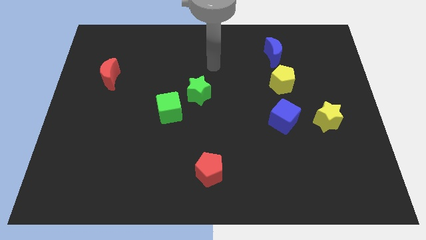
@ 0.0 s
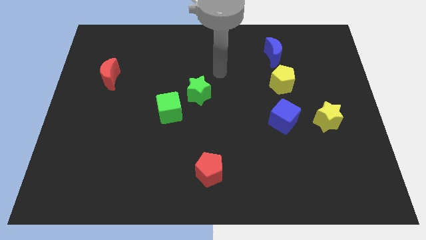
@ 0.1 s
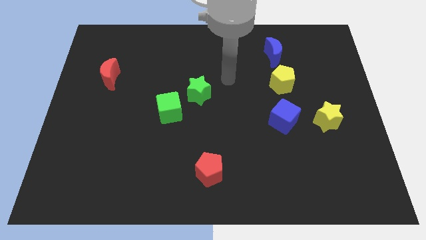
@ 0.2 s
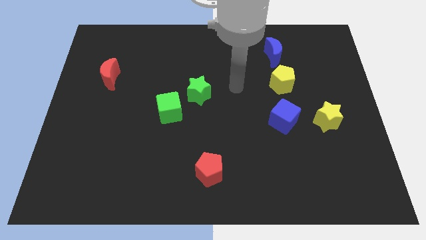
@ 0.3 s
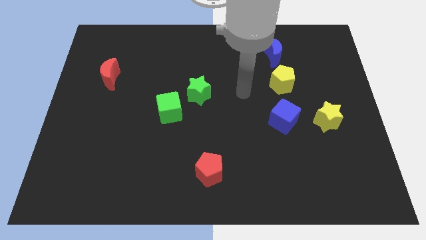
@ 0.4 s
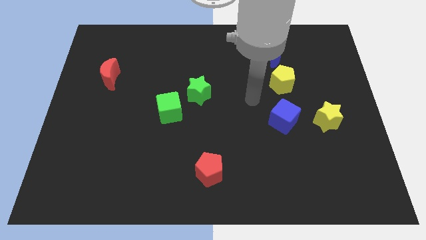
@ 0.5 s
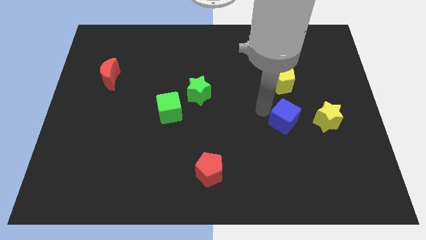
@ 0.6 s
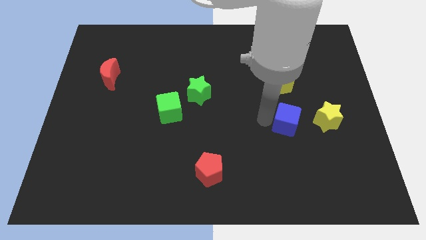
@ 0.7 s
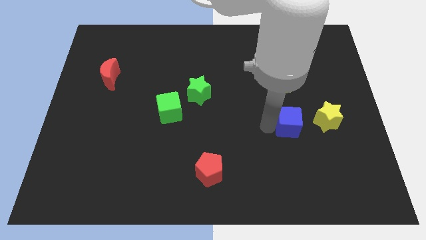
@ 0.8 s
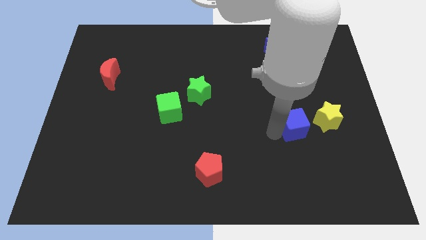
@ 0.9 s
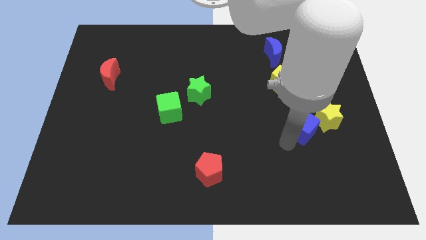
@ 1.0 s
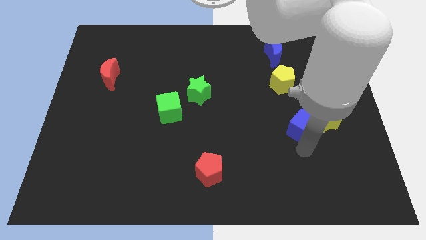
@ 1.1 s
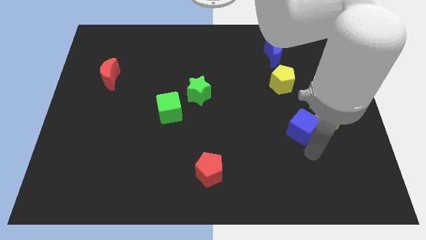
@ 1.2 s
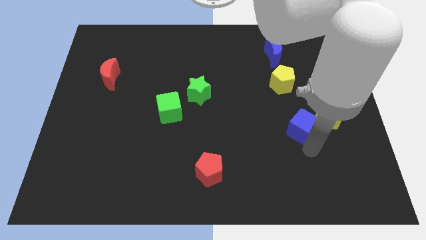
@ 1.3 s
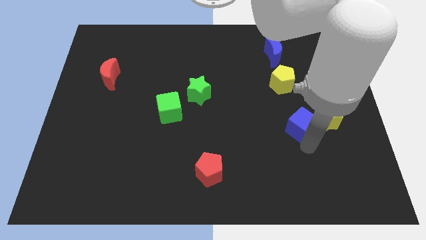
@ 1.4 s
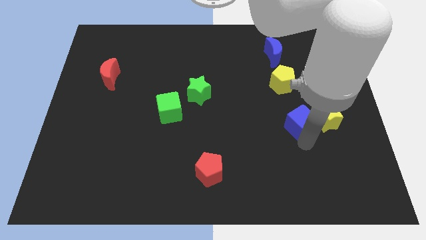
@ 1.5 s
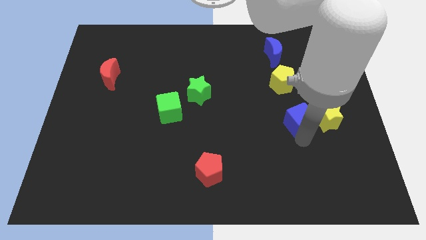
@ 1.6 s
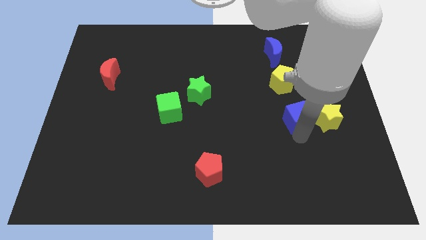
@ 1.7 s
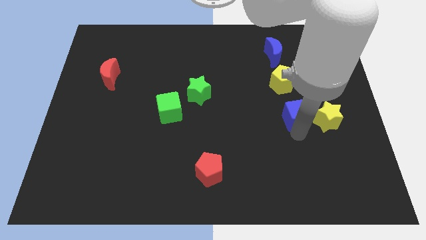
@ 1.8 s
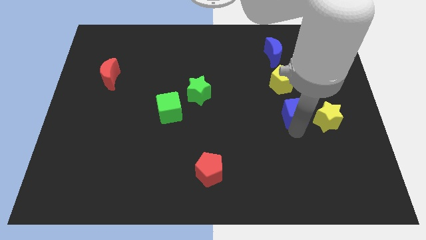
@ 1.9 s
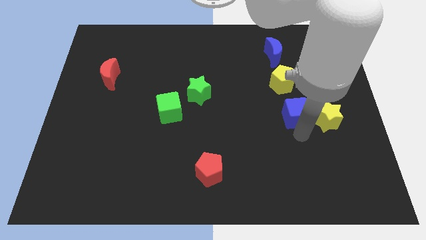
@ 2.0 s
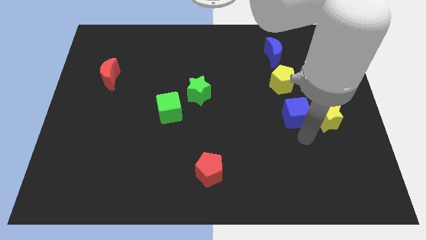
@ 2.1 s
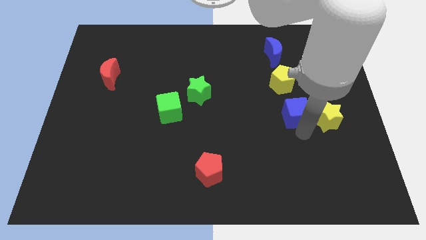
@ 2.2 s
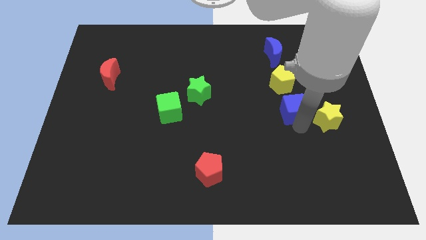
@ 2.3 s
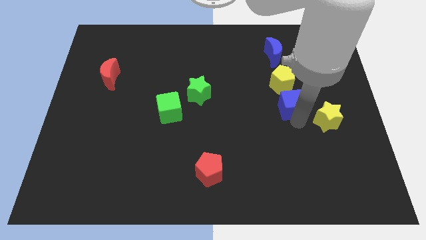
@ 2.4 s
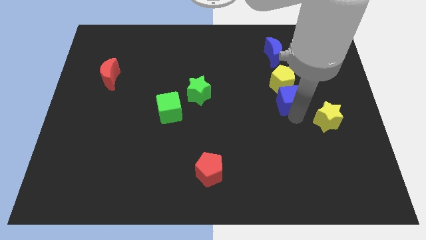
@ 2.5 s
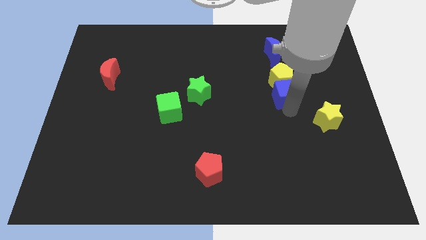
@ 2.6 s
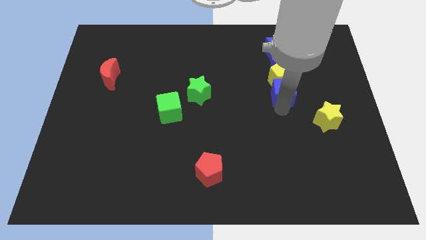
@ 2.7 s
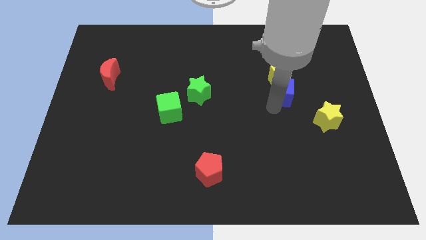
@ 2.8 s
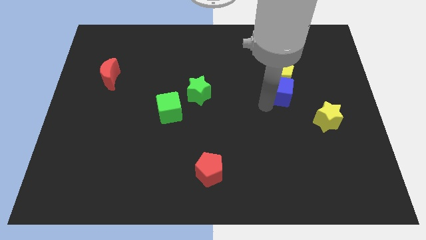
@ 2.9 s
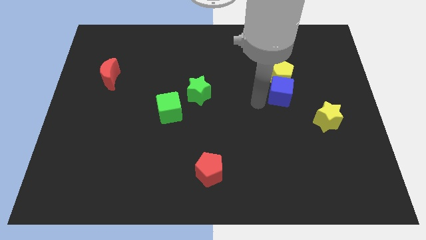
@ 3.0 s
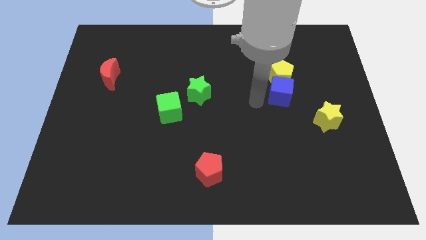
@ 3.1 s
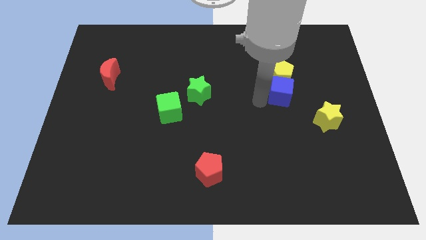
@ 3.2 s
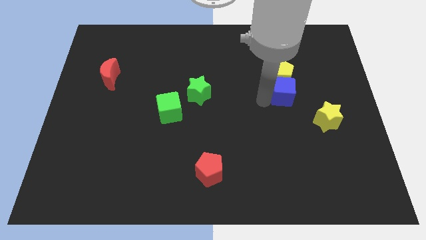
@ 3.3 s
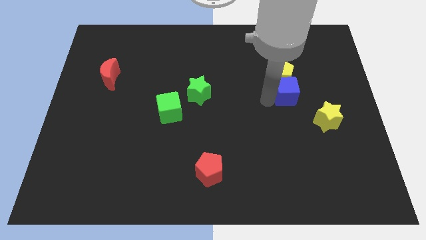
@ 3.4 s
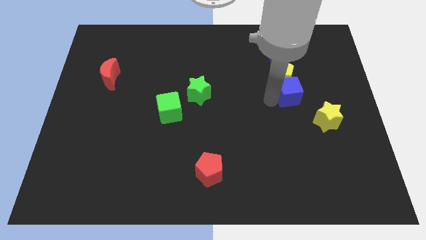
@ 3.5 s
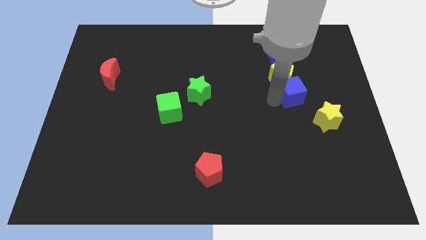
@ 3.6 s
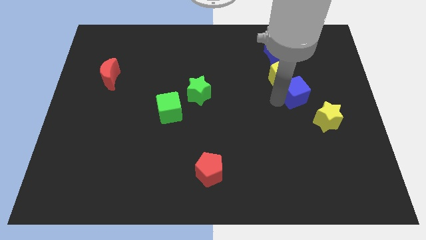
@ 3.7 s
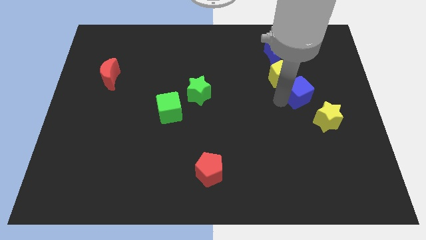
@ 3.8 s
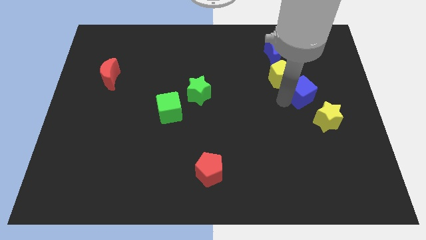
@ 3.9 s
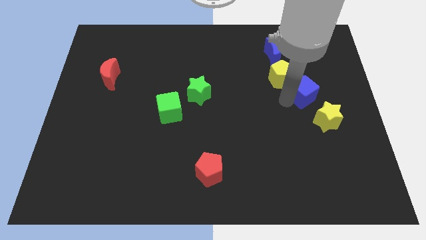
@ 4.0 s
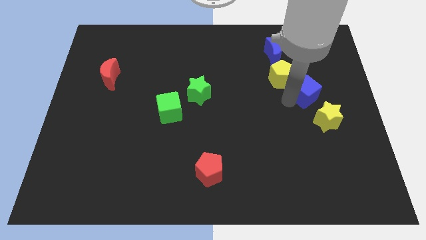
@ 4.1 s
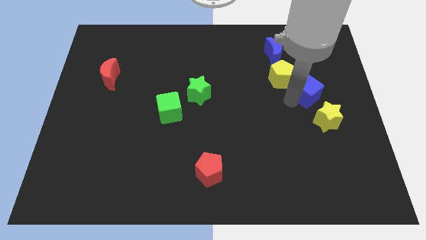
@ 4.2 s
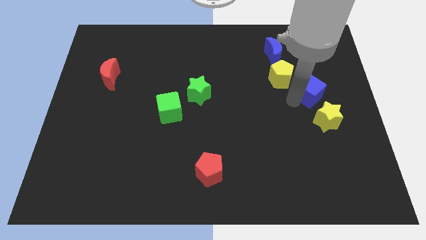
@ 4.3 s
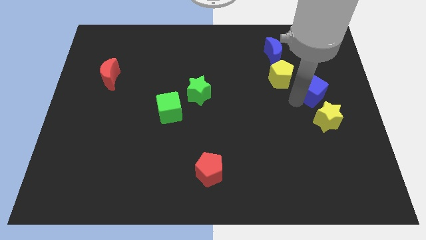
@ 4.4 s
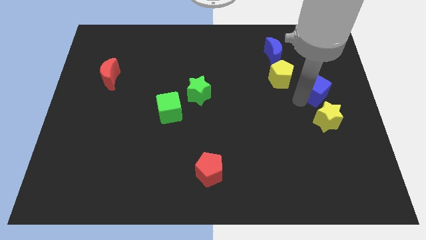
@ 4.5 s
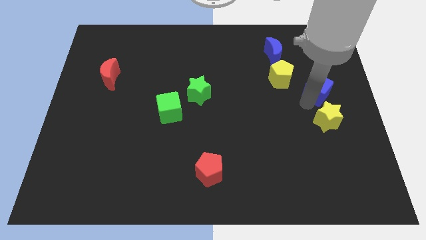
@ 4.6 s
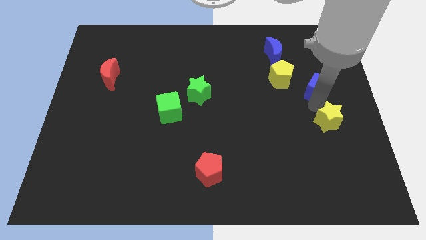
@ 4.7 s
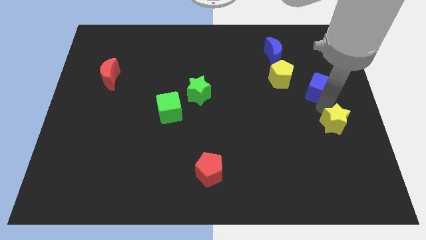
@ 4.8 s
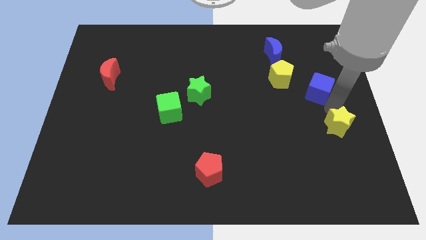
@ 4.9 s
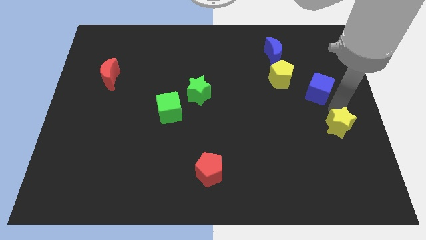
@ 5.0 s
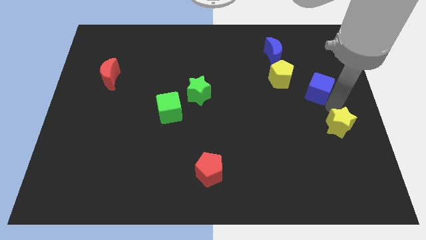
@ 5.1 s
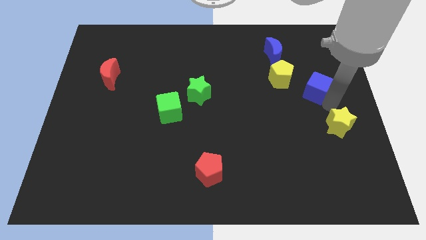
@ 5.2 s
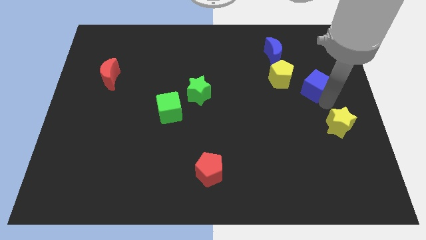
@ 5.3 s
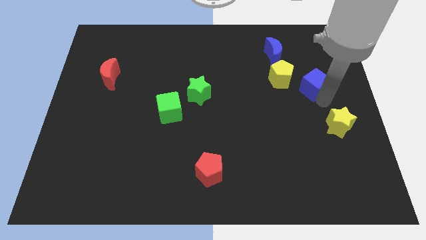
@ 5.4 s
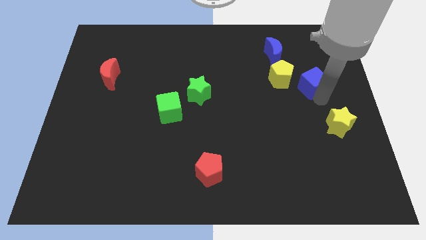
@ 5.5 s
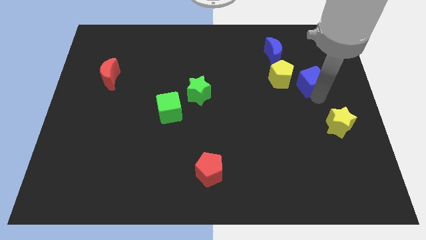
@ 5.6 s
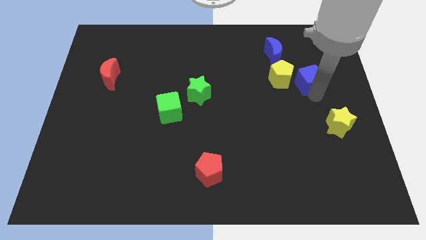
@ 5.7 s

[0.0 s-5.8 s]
move the blue cube diagonally down and to the right of the blue moon
